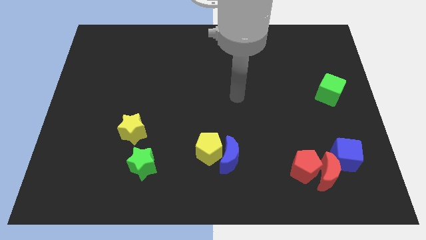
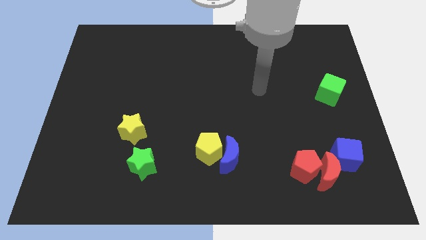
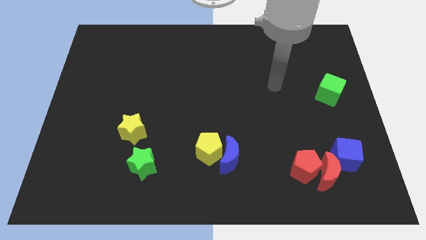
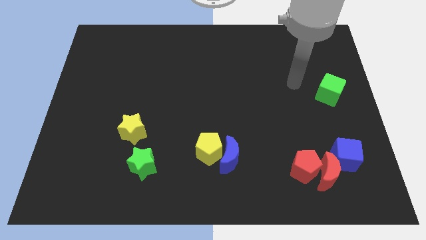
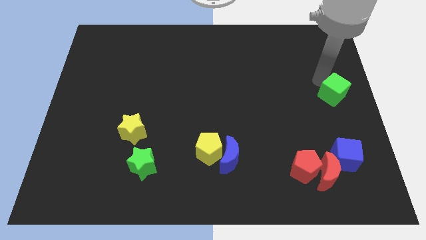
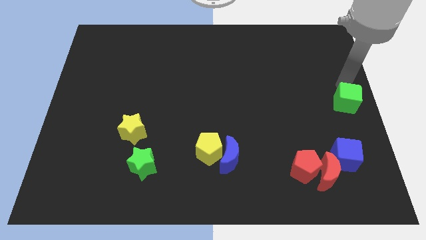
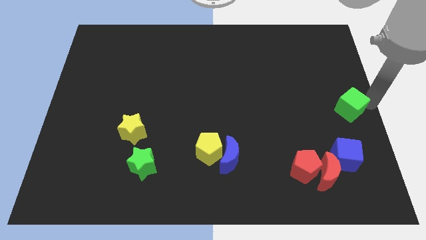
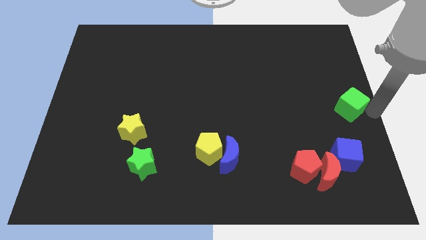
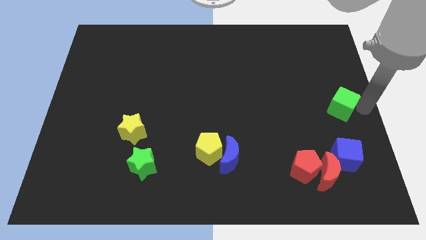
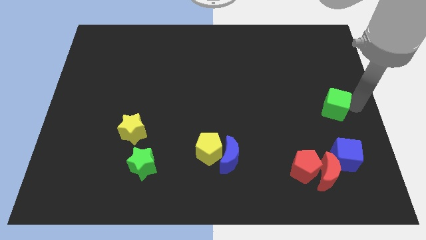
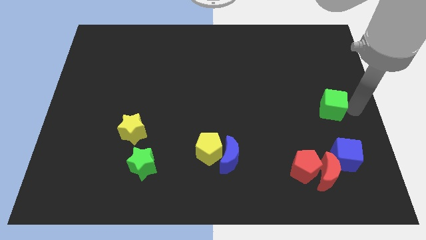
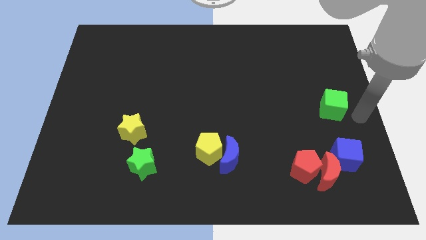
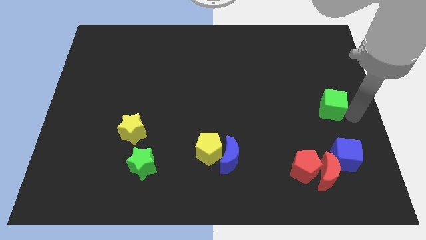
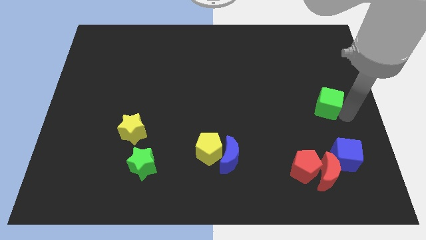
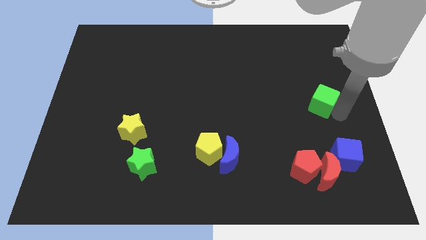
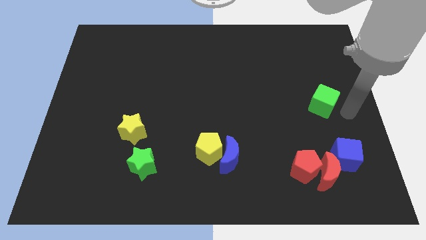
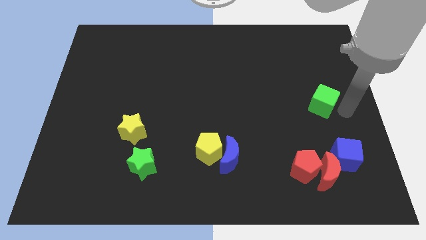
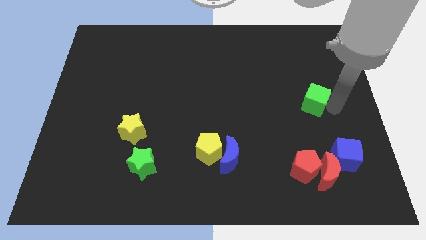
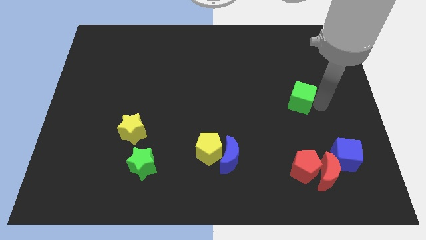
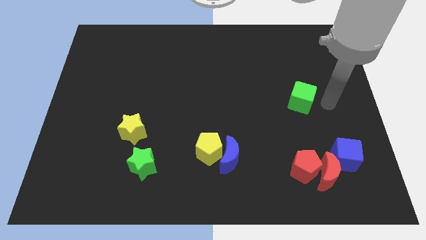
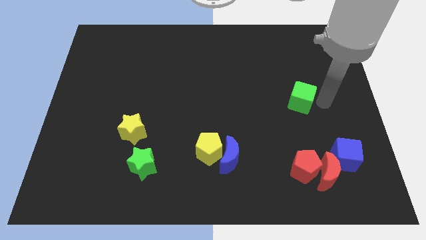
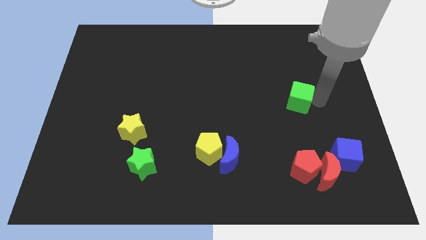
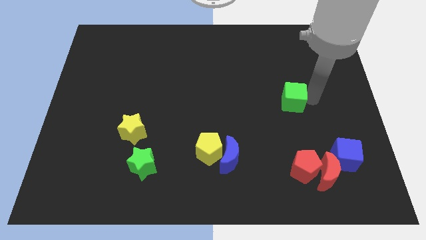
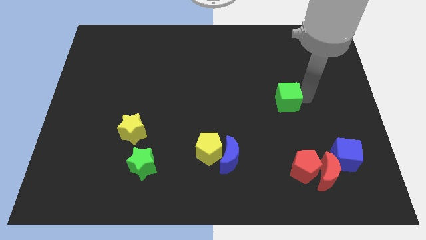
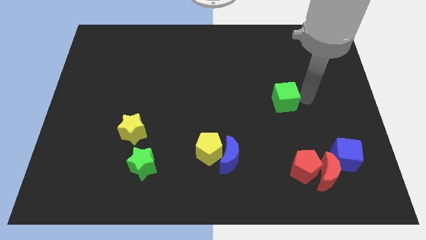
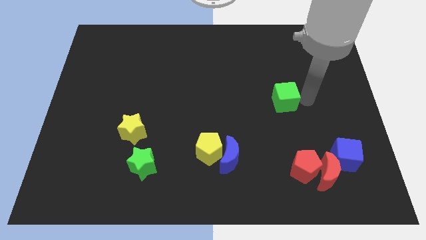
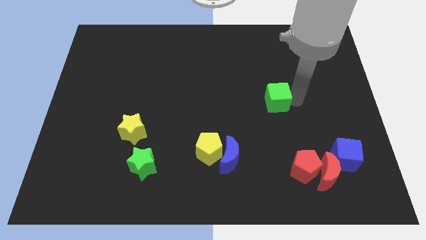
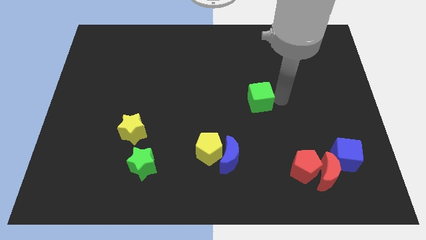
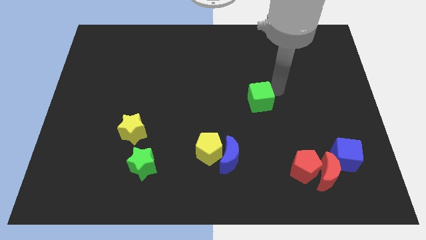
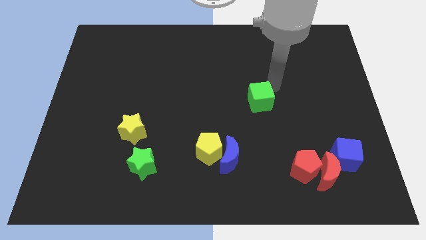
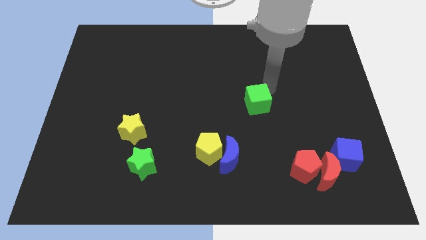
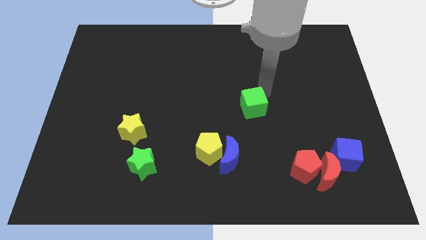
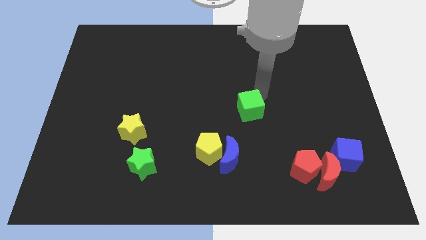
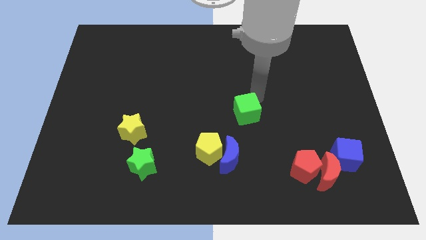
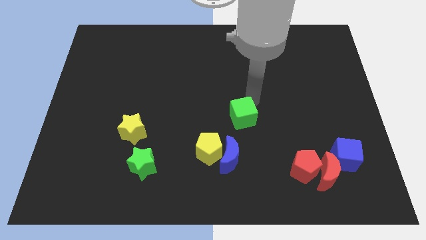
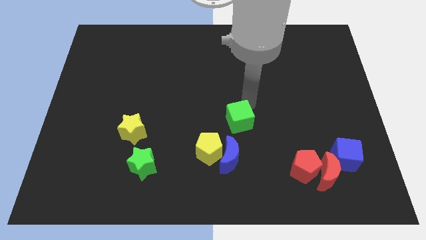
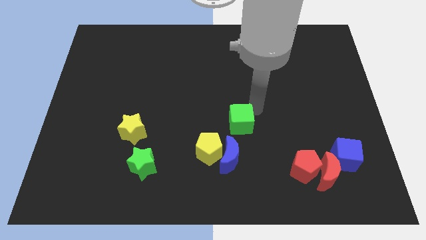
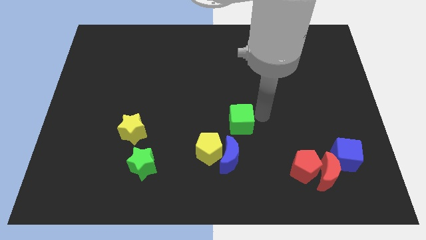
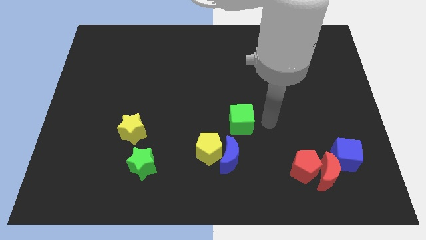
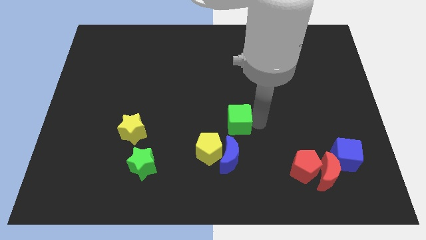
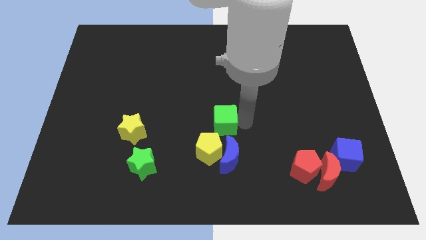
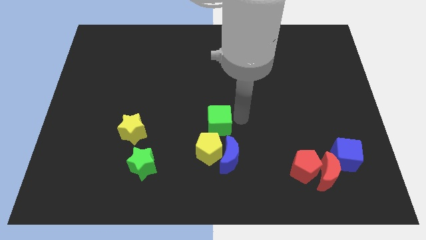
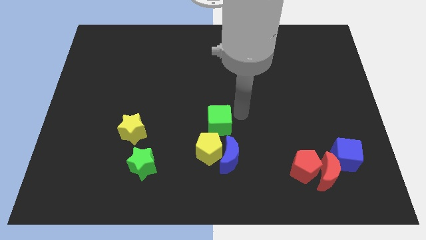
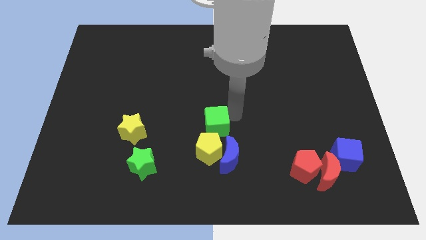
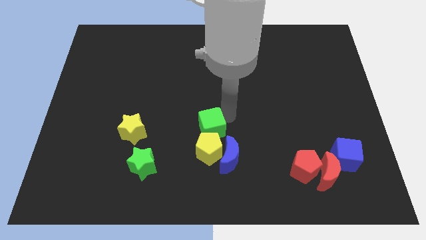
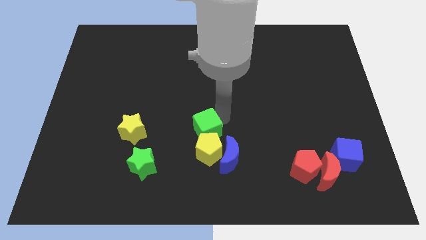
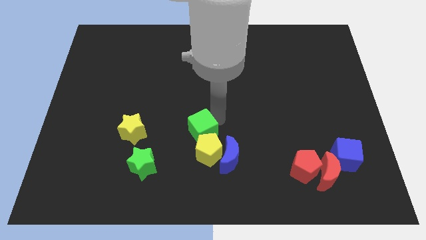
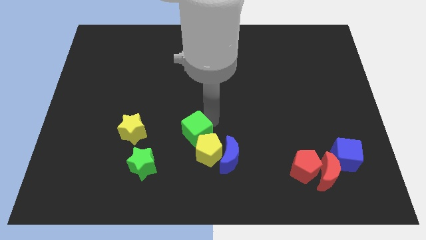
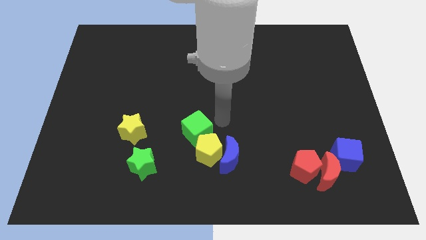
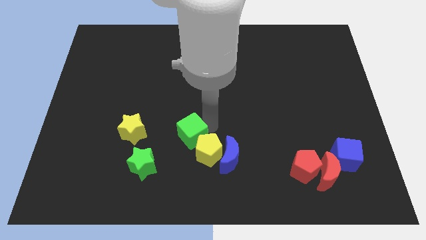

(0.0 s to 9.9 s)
push the green cube to the top right of the green star

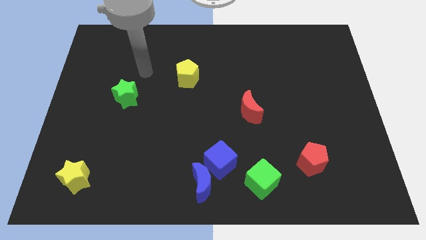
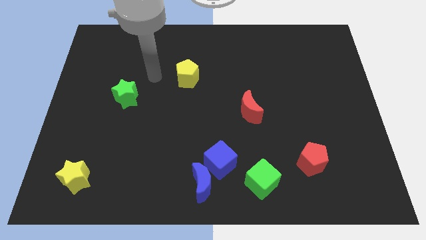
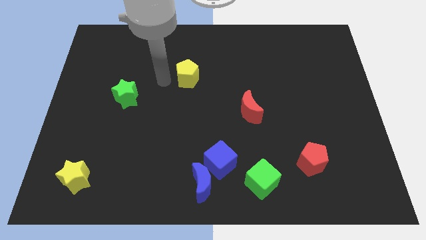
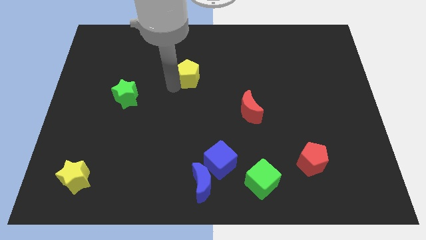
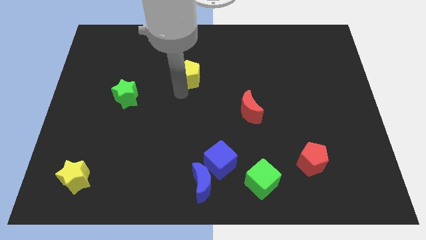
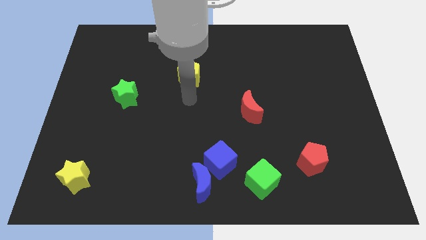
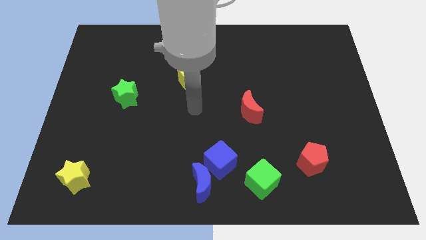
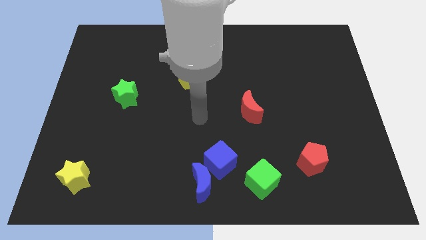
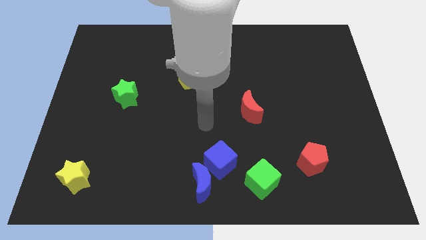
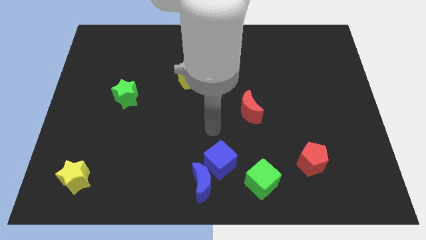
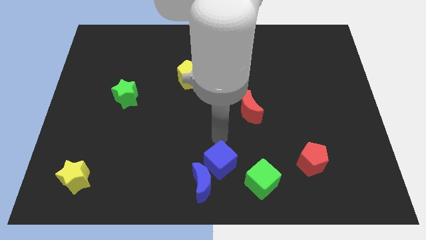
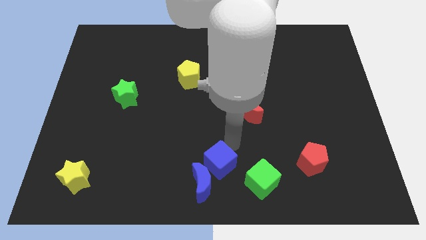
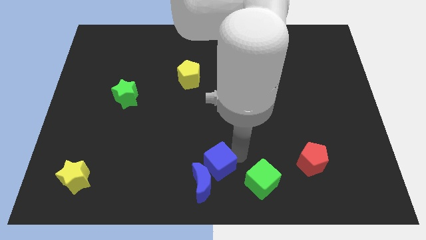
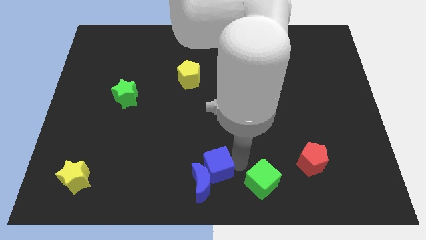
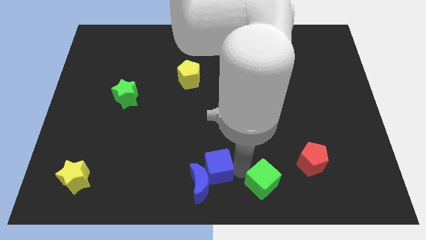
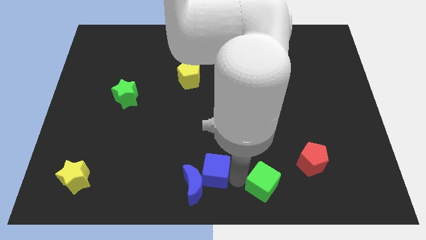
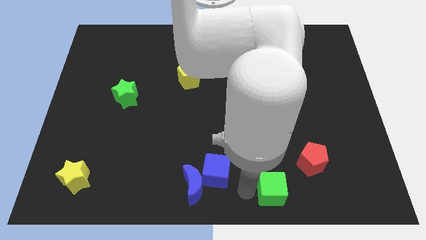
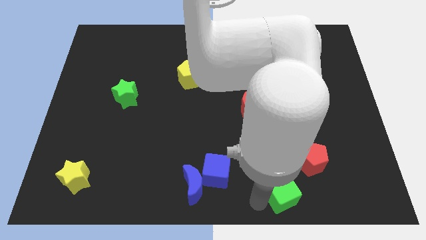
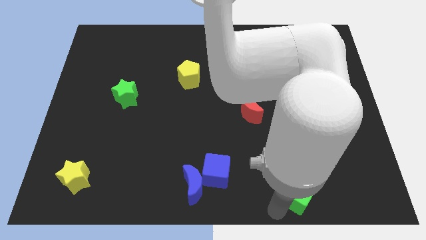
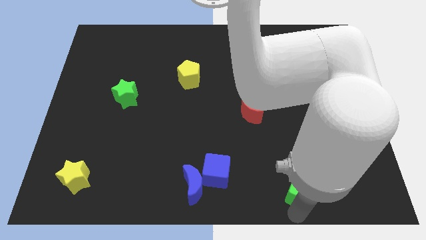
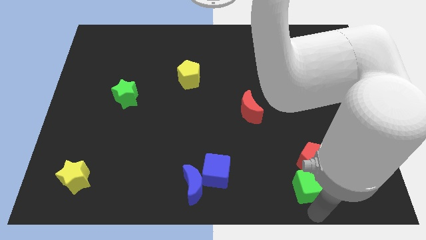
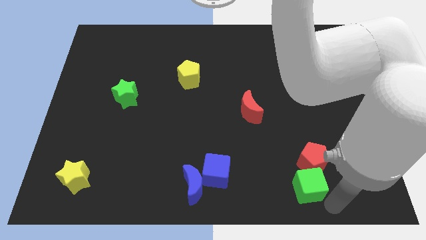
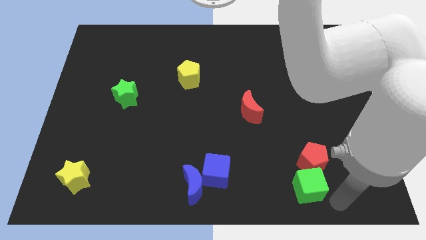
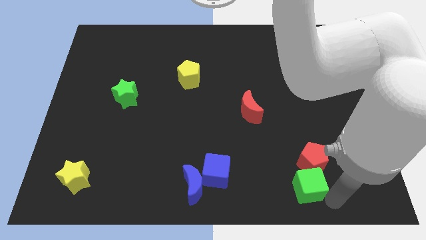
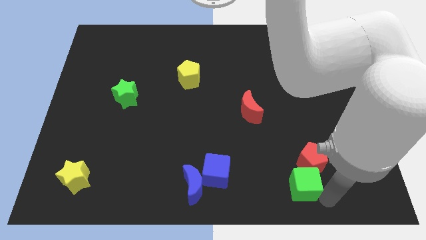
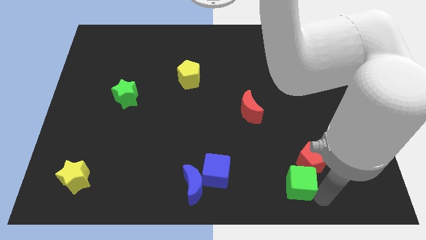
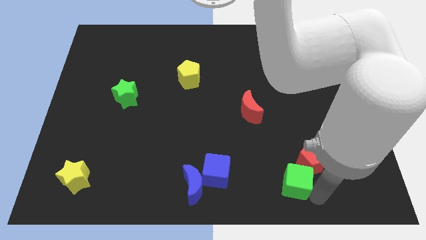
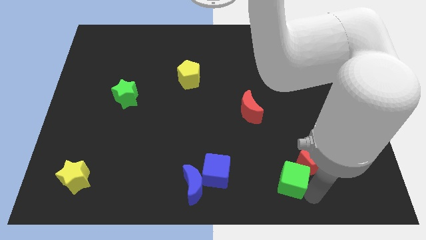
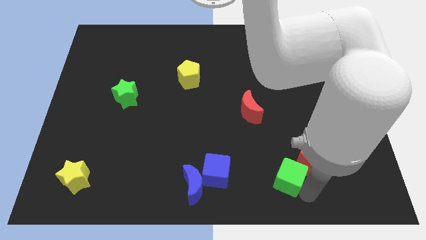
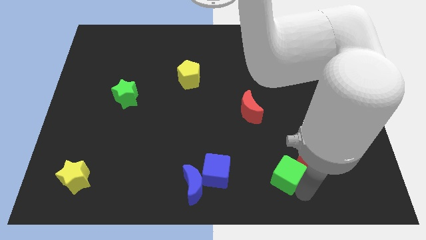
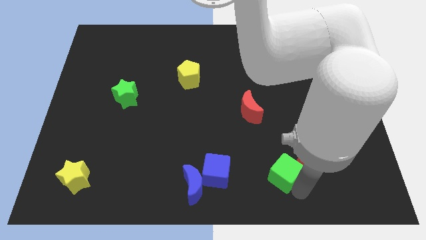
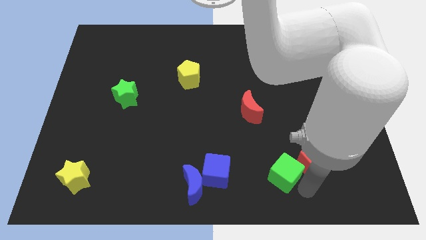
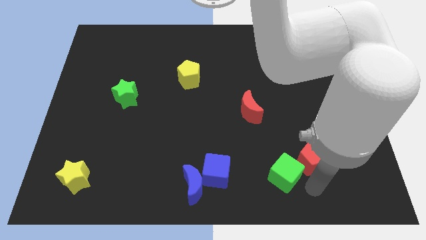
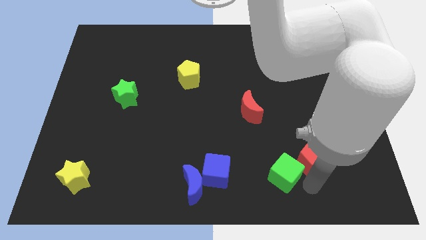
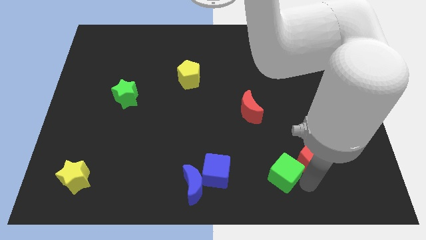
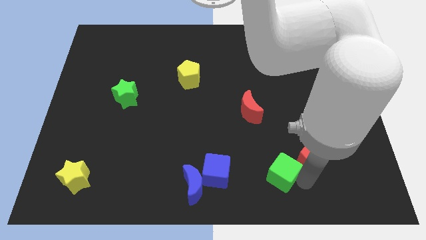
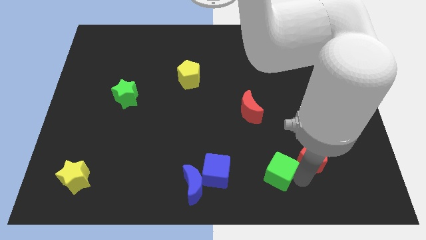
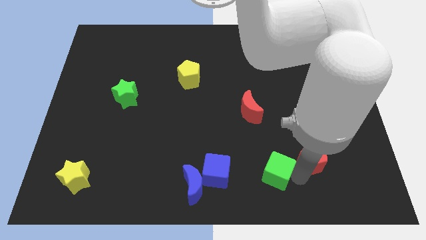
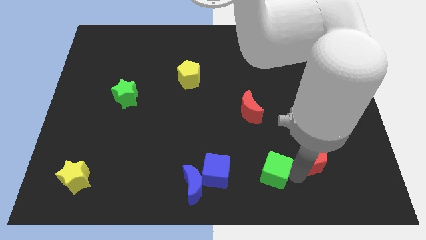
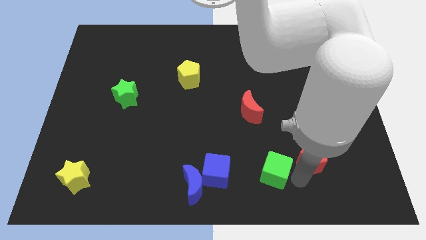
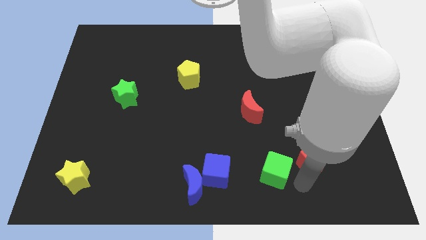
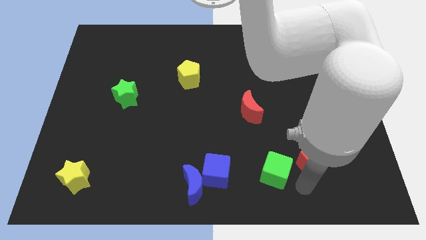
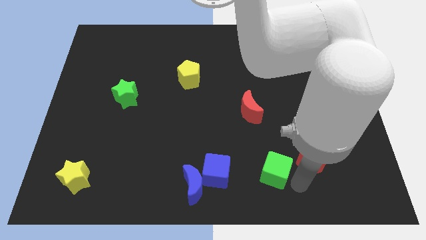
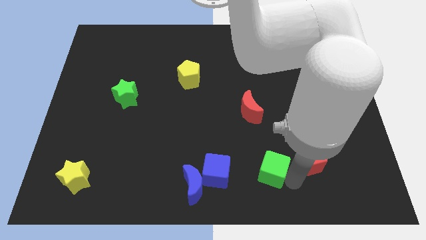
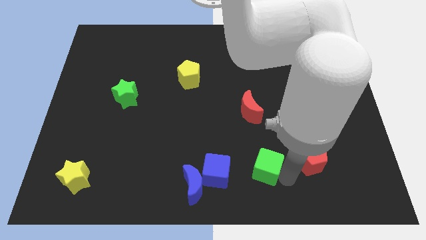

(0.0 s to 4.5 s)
move the green cube below the red moon
